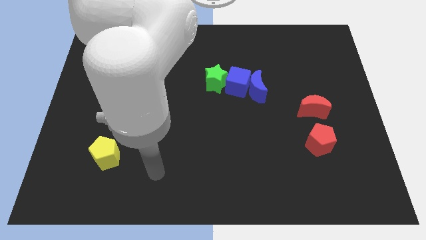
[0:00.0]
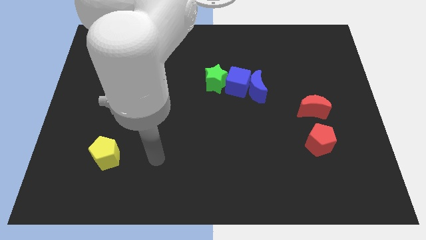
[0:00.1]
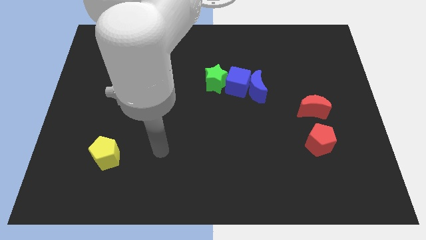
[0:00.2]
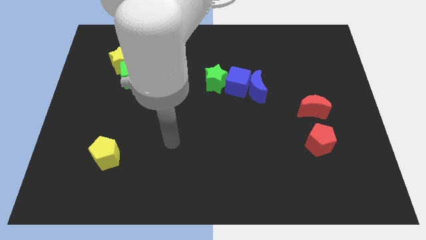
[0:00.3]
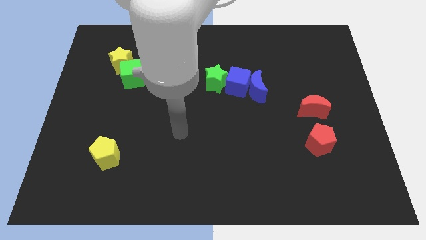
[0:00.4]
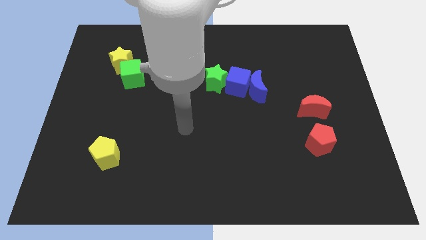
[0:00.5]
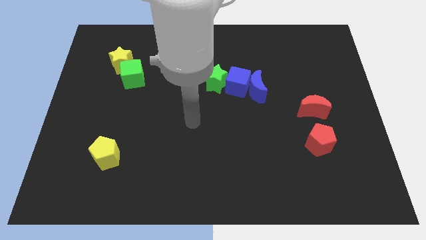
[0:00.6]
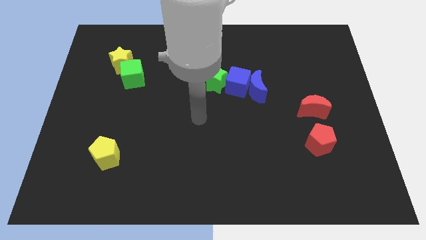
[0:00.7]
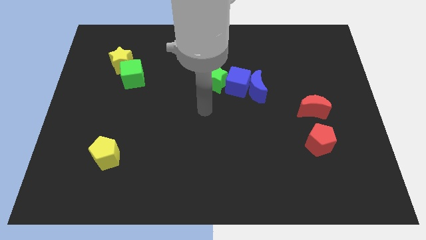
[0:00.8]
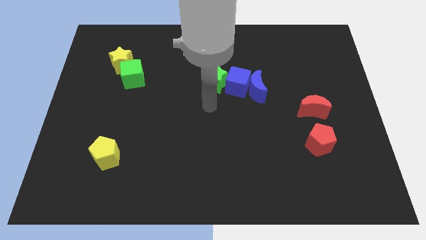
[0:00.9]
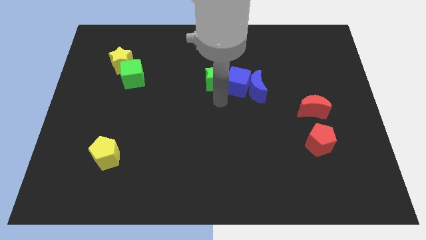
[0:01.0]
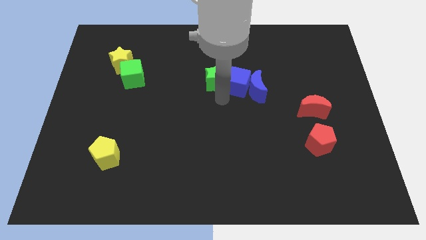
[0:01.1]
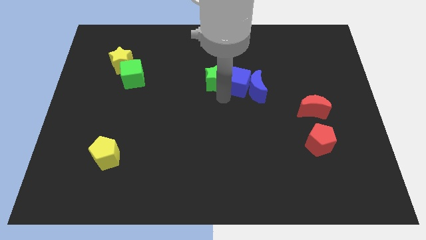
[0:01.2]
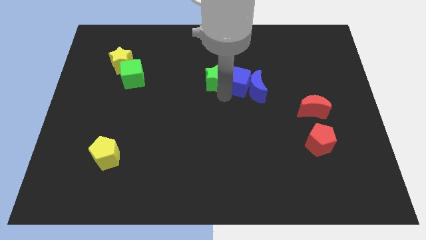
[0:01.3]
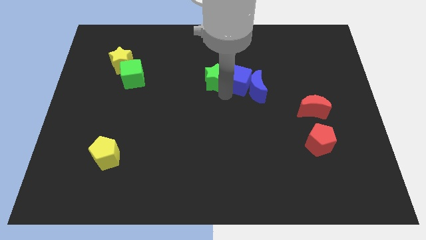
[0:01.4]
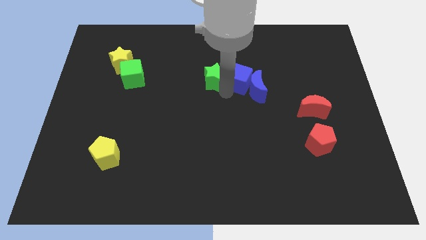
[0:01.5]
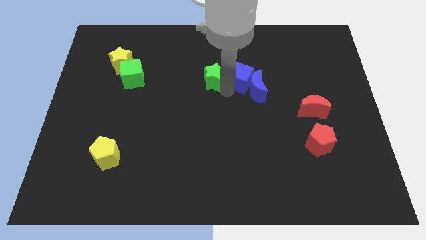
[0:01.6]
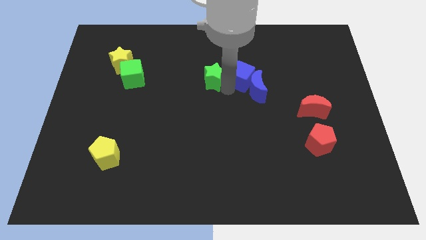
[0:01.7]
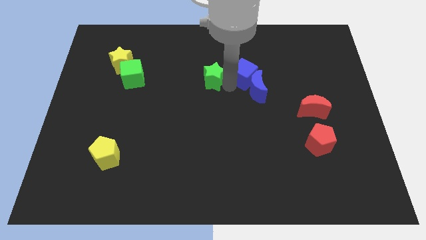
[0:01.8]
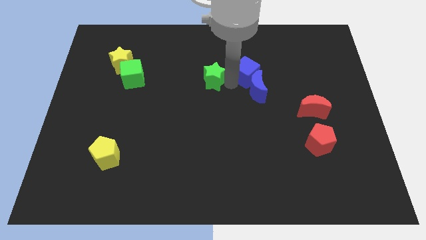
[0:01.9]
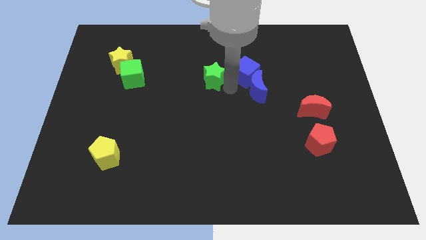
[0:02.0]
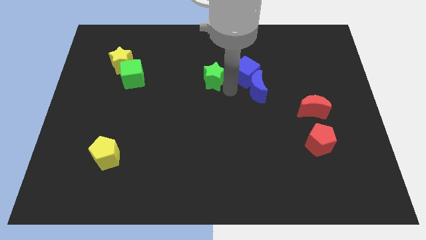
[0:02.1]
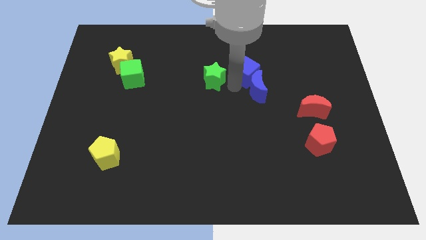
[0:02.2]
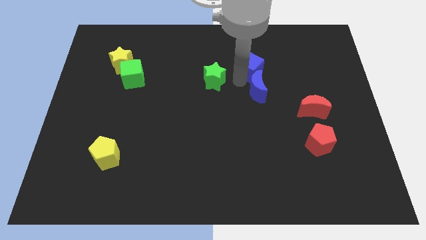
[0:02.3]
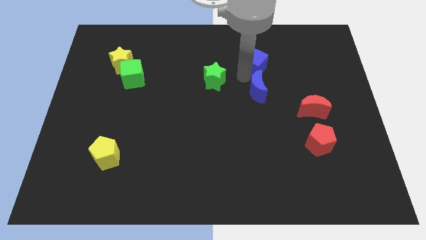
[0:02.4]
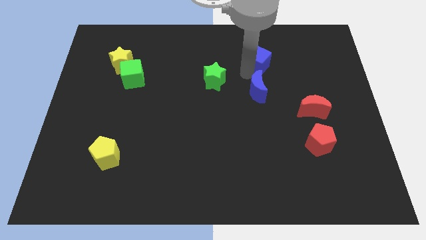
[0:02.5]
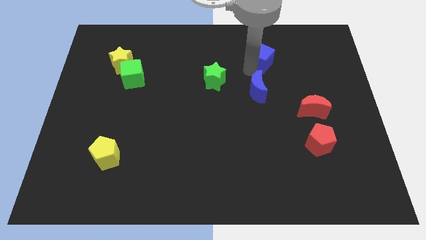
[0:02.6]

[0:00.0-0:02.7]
separate the blue cube from the blue moon and green star

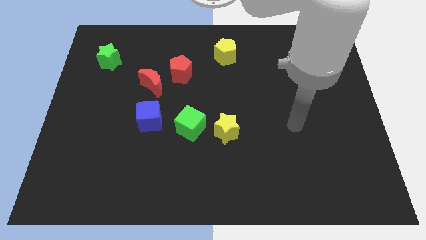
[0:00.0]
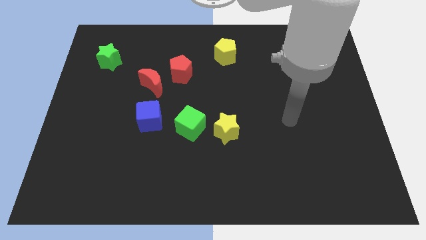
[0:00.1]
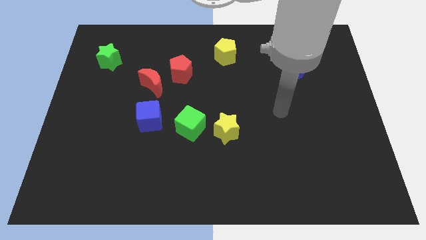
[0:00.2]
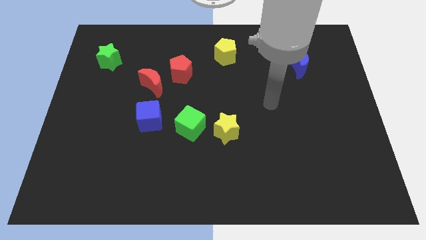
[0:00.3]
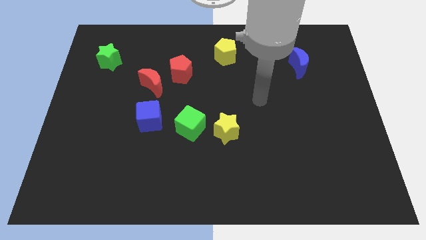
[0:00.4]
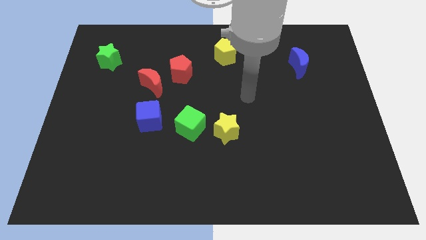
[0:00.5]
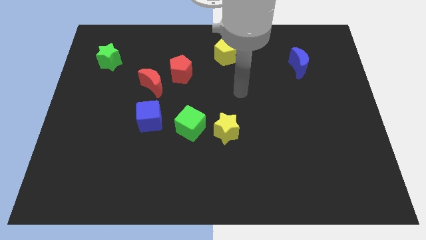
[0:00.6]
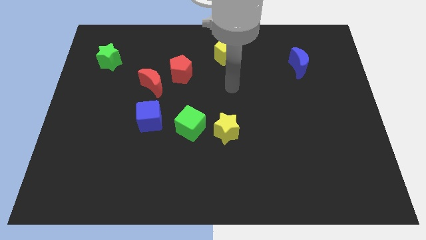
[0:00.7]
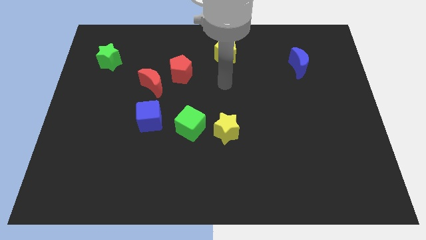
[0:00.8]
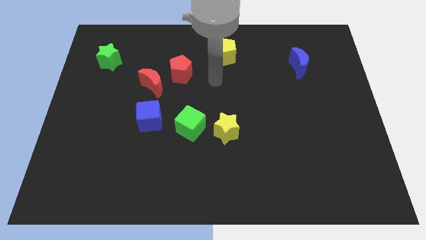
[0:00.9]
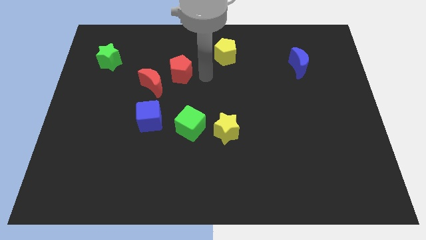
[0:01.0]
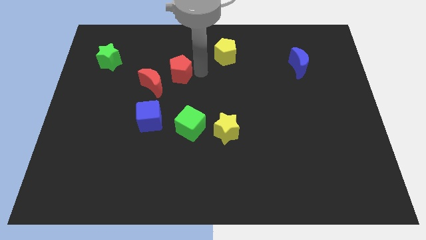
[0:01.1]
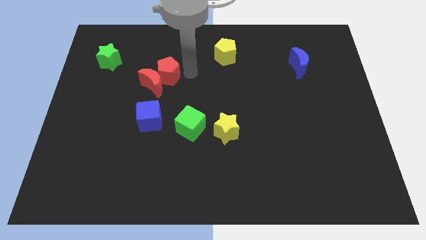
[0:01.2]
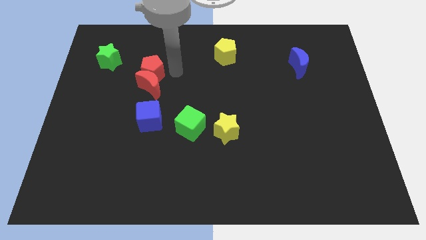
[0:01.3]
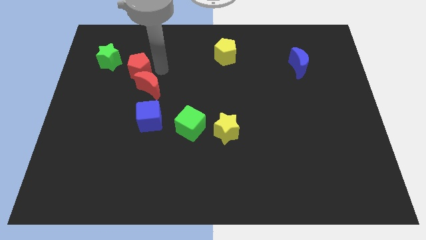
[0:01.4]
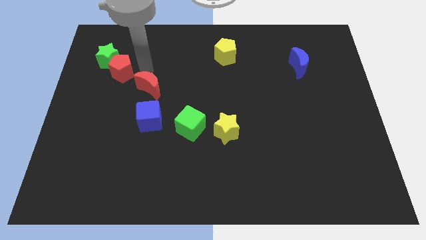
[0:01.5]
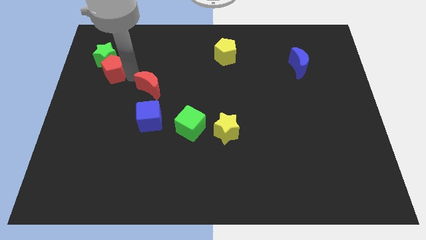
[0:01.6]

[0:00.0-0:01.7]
separate the red moon from the red pentagon

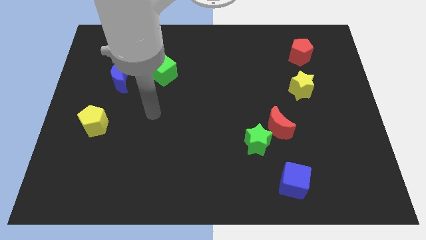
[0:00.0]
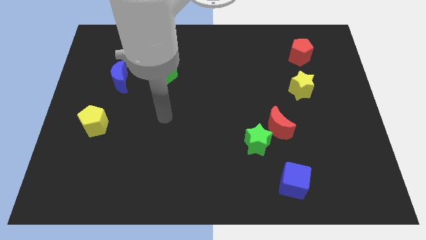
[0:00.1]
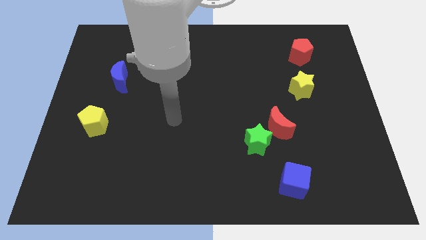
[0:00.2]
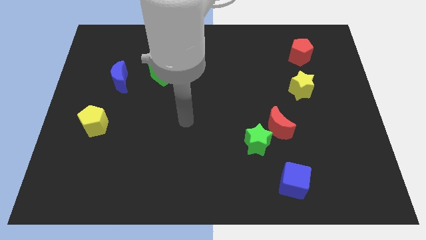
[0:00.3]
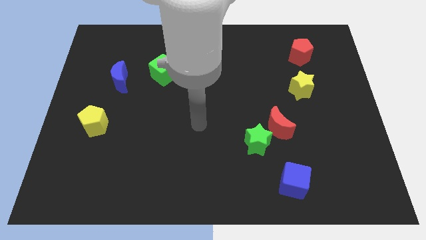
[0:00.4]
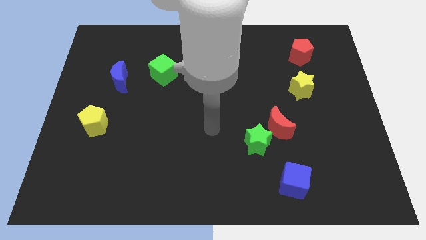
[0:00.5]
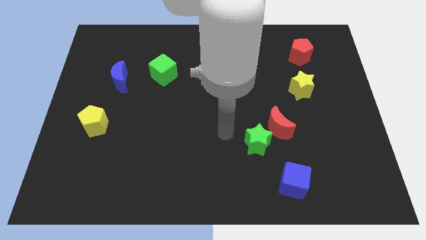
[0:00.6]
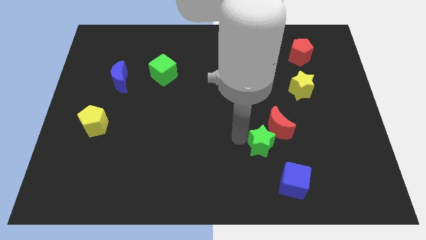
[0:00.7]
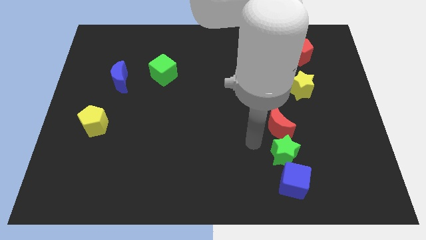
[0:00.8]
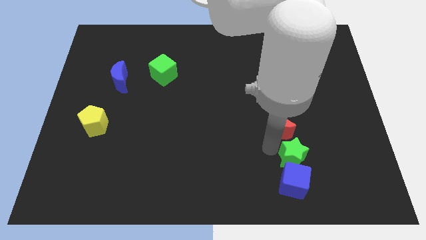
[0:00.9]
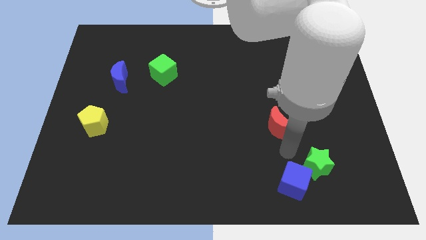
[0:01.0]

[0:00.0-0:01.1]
pull the red moon apart from the green star

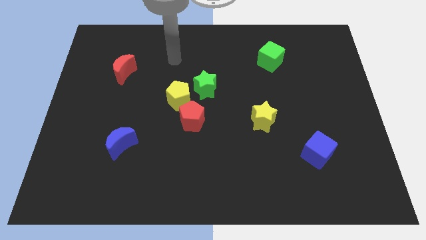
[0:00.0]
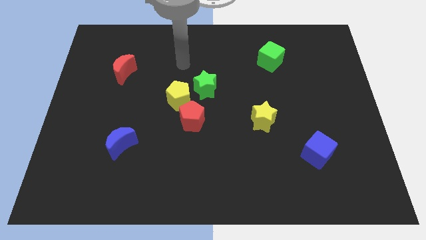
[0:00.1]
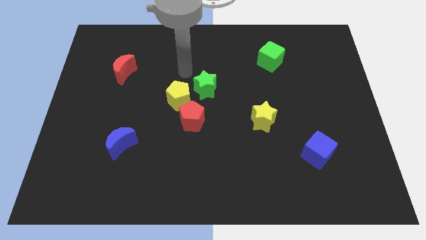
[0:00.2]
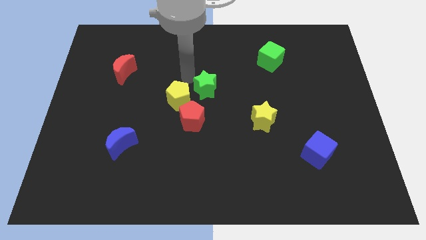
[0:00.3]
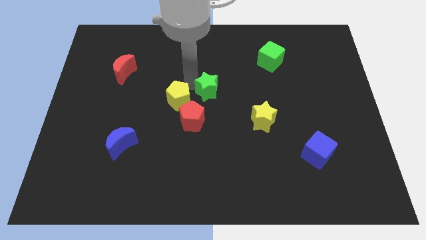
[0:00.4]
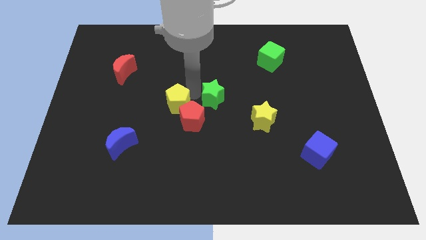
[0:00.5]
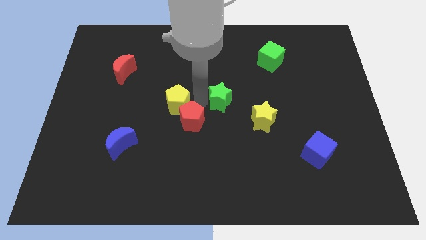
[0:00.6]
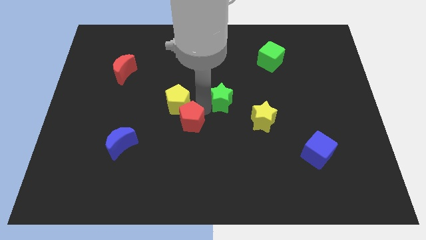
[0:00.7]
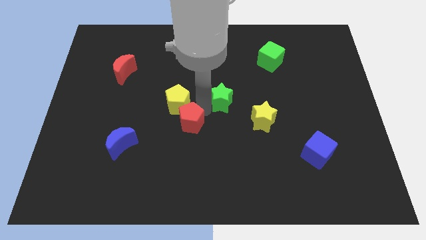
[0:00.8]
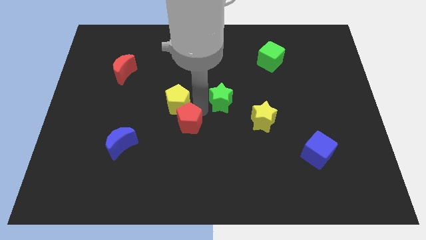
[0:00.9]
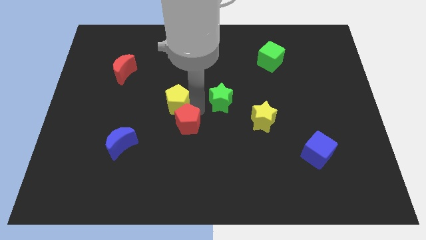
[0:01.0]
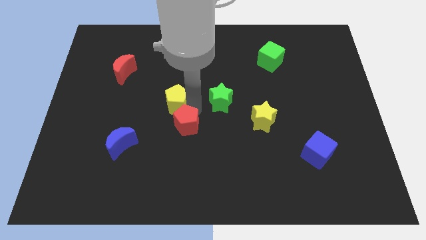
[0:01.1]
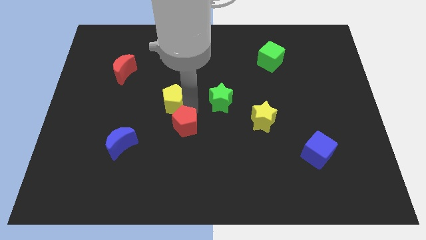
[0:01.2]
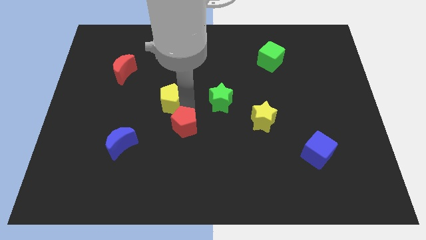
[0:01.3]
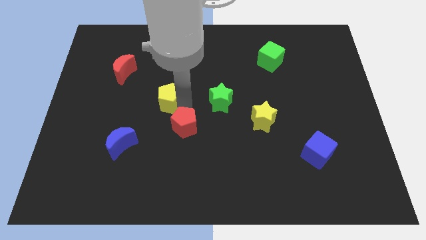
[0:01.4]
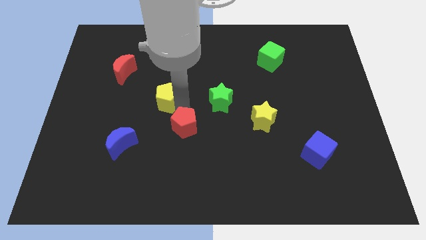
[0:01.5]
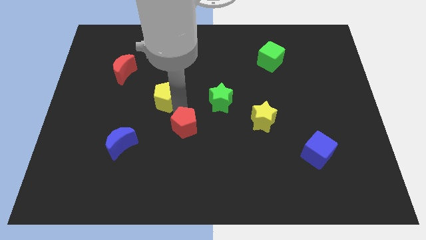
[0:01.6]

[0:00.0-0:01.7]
move the yellow pentagon away from the red pentagon and green star

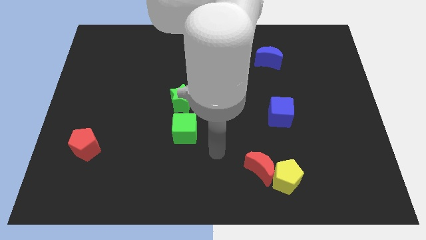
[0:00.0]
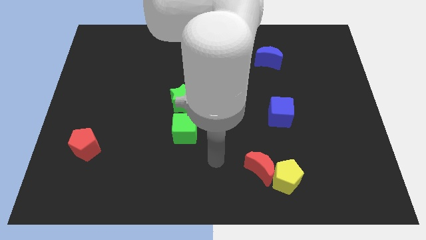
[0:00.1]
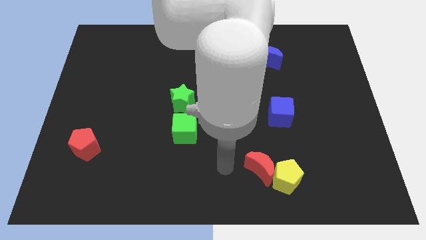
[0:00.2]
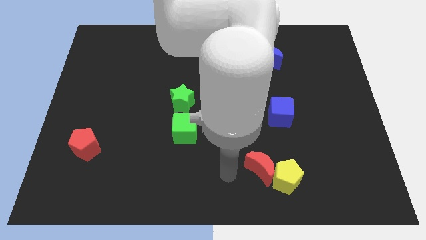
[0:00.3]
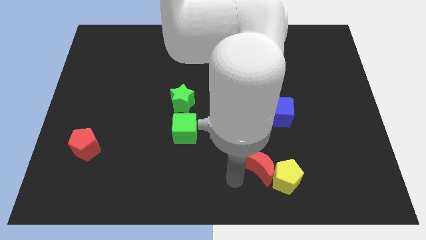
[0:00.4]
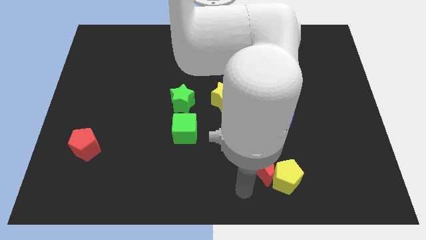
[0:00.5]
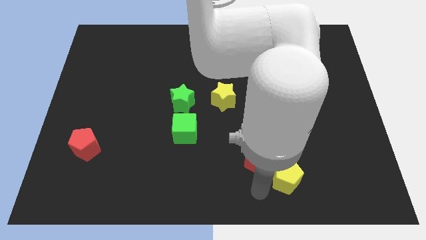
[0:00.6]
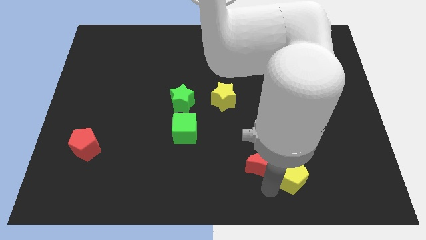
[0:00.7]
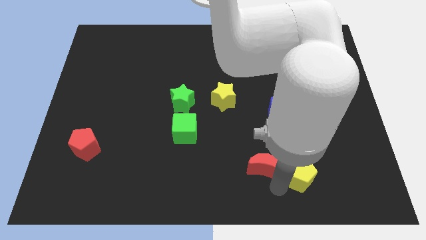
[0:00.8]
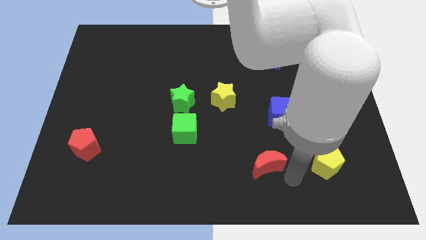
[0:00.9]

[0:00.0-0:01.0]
separate the red moon from the yellow pentagon

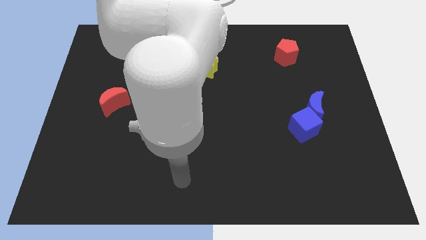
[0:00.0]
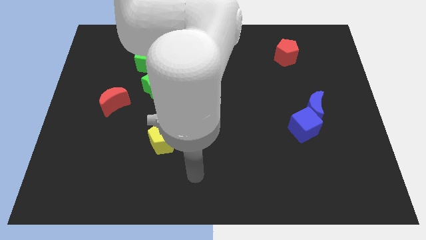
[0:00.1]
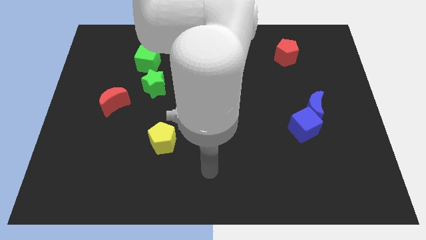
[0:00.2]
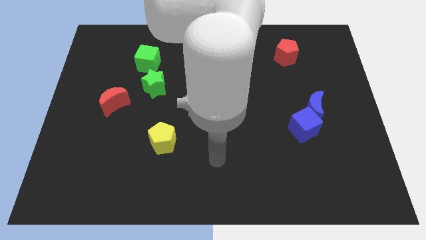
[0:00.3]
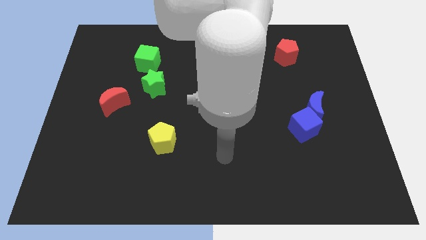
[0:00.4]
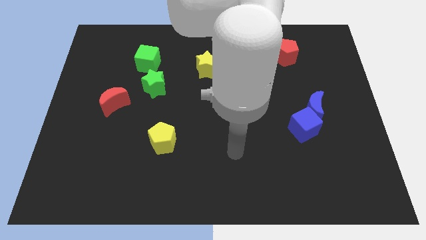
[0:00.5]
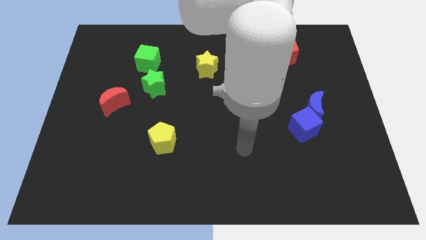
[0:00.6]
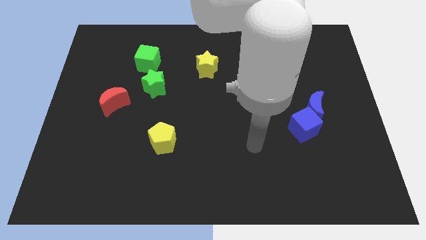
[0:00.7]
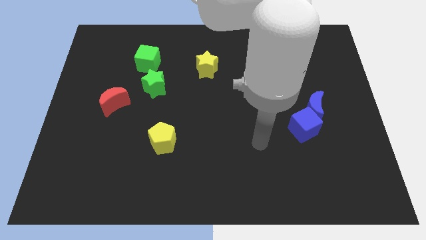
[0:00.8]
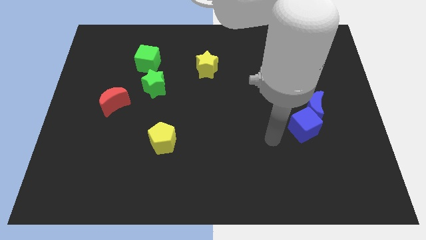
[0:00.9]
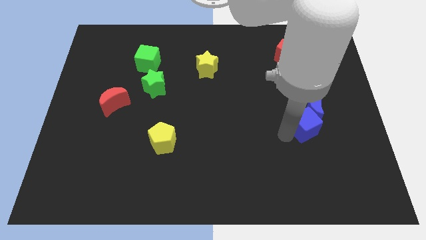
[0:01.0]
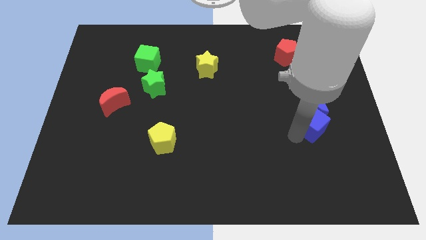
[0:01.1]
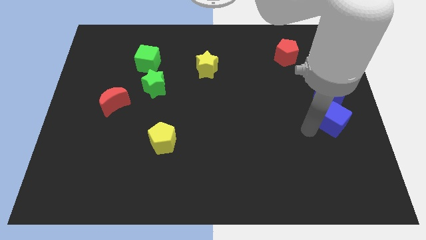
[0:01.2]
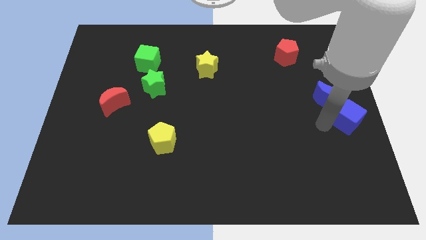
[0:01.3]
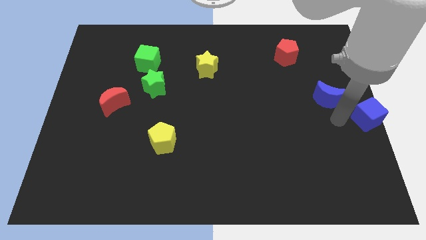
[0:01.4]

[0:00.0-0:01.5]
move the blue moon away from the blue cube
